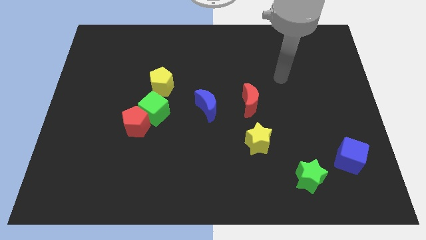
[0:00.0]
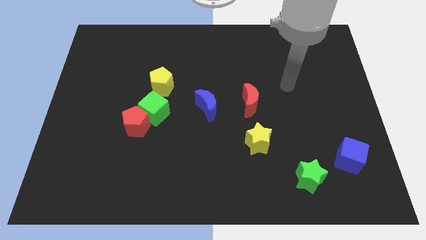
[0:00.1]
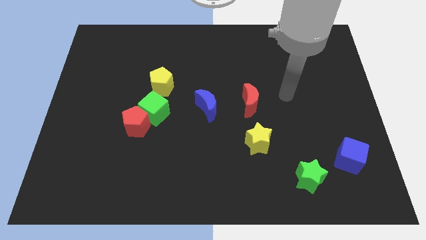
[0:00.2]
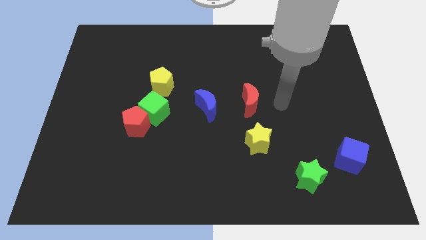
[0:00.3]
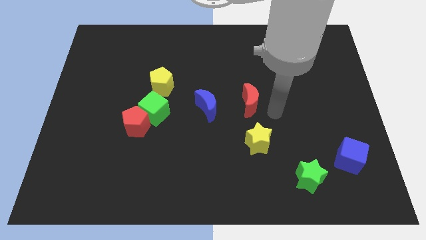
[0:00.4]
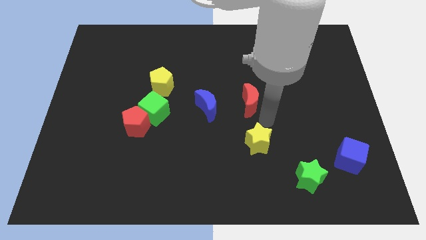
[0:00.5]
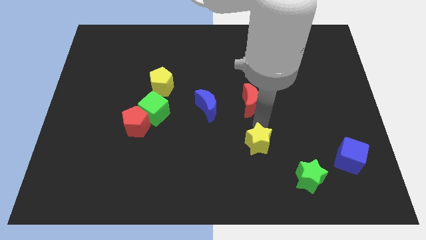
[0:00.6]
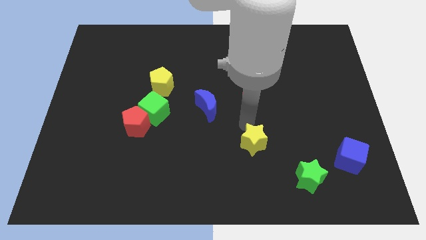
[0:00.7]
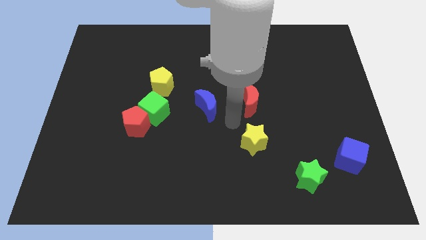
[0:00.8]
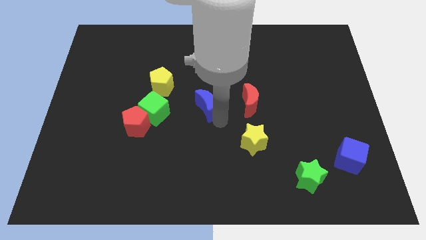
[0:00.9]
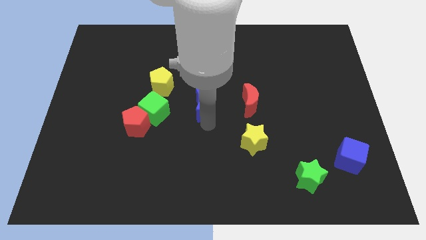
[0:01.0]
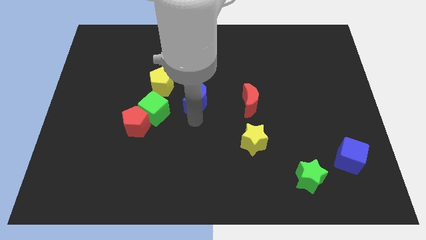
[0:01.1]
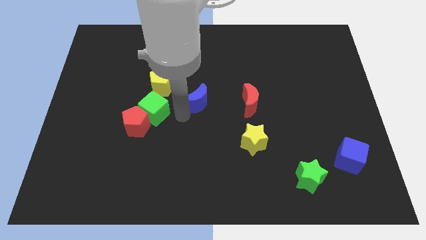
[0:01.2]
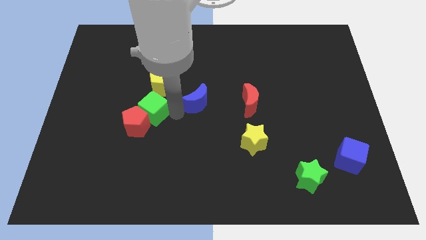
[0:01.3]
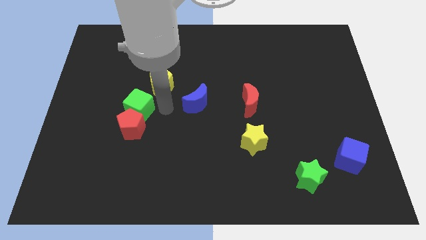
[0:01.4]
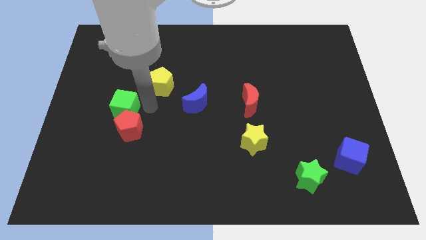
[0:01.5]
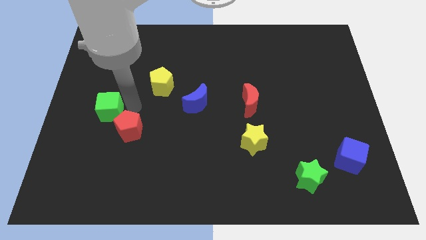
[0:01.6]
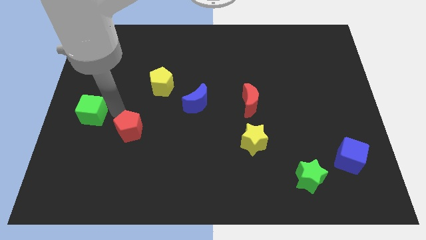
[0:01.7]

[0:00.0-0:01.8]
separate the red pentagon from the green cube

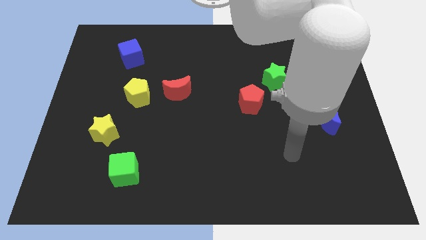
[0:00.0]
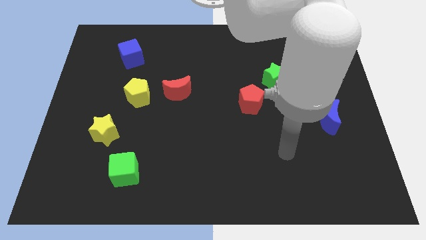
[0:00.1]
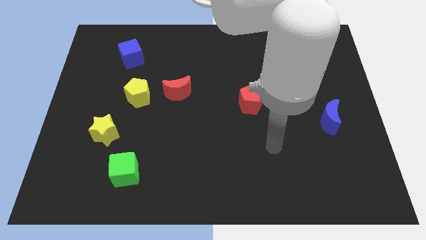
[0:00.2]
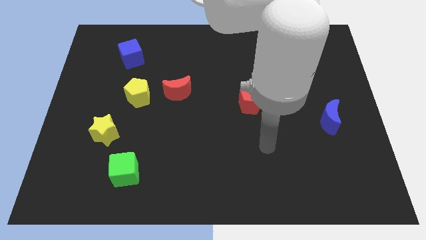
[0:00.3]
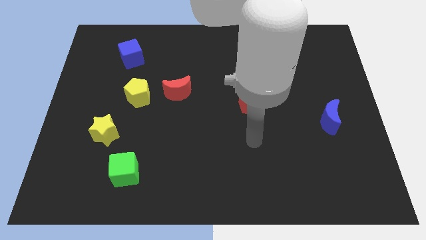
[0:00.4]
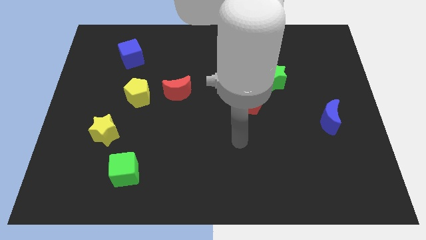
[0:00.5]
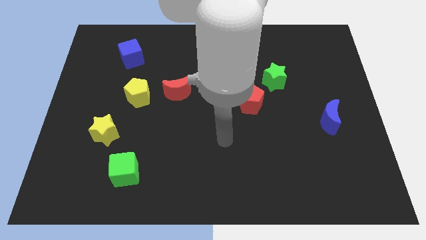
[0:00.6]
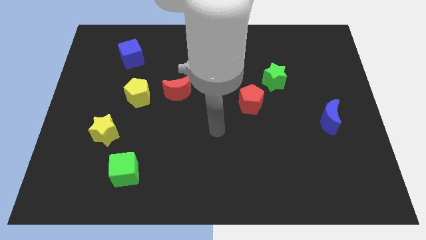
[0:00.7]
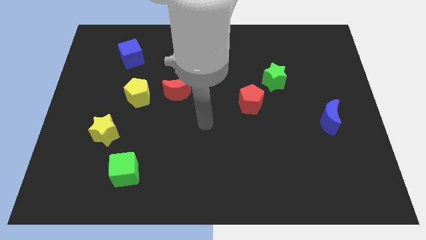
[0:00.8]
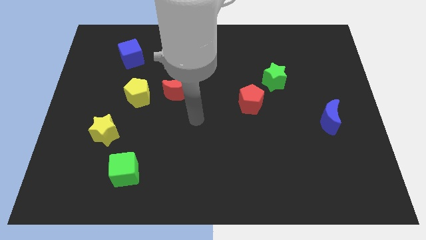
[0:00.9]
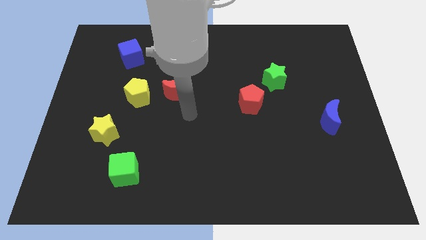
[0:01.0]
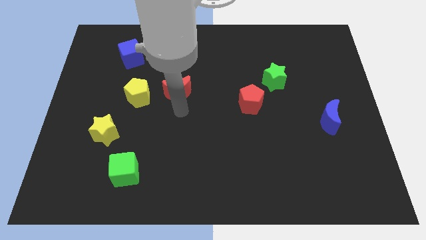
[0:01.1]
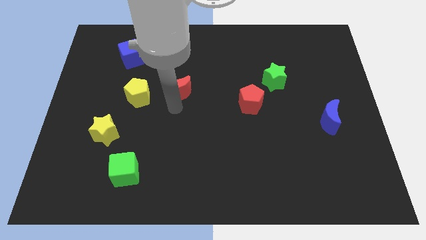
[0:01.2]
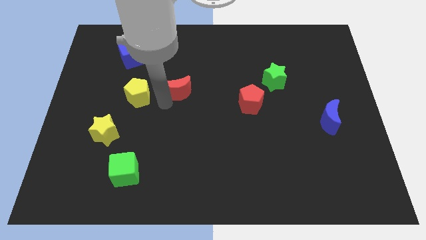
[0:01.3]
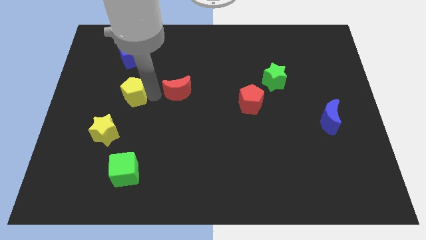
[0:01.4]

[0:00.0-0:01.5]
pull the red moon apart from the yellow pentagon

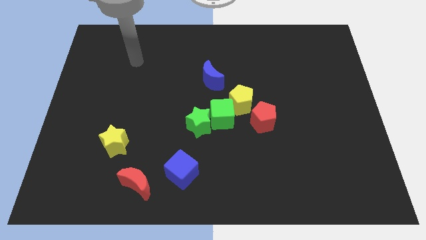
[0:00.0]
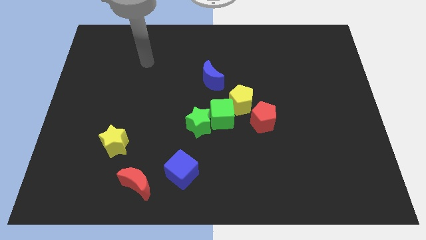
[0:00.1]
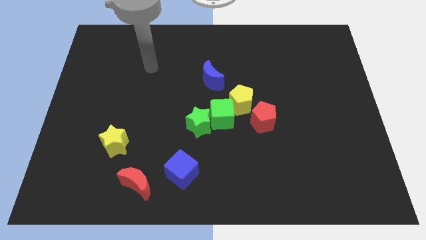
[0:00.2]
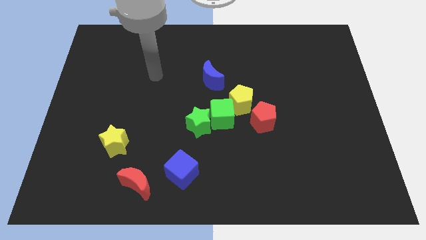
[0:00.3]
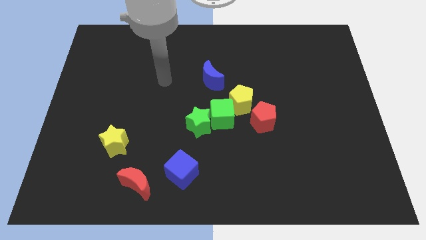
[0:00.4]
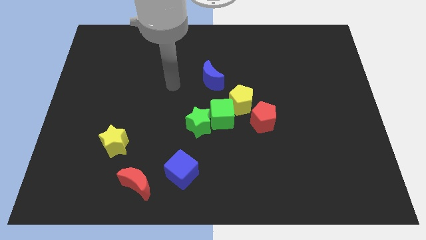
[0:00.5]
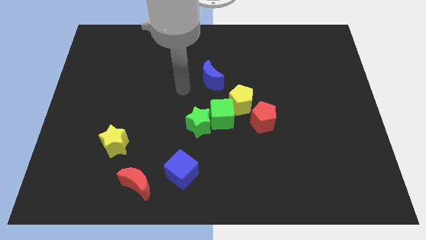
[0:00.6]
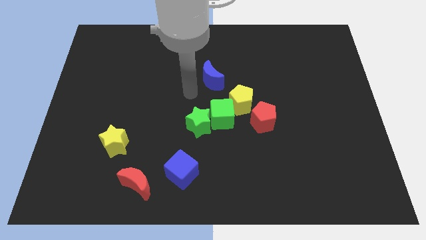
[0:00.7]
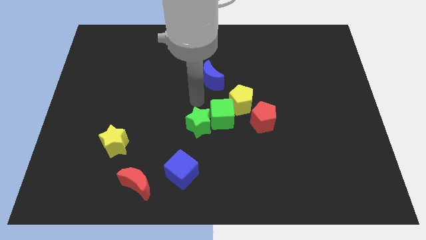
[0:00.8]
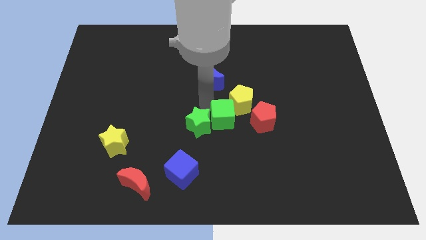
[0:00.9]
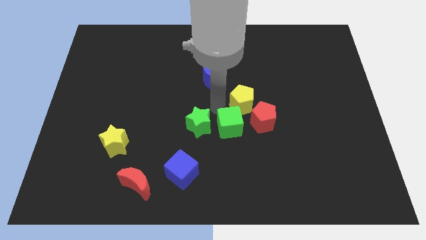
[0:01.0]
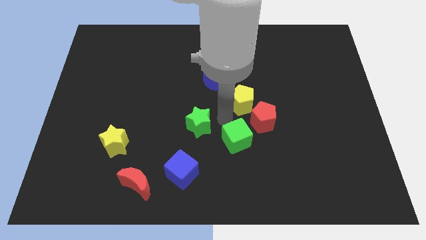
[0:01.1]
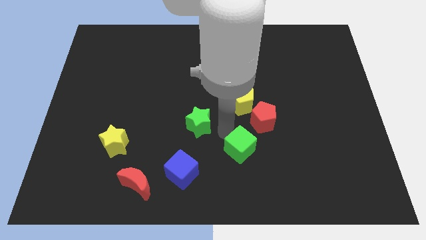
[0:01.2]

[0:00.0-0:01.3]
pull the green star apart from the green cube

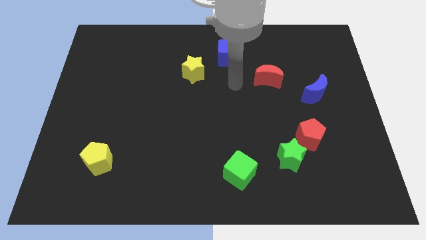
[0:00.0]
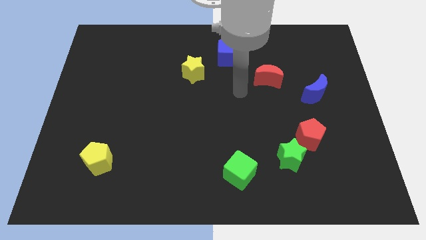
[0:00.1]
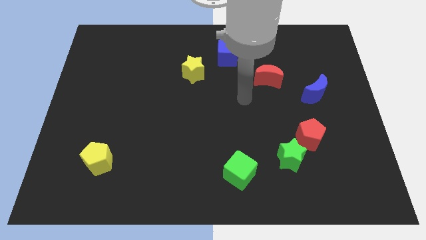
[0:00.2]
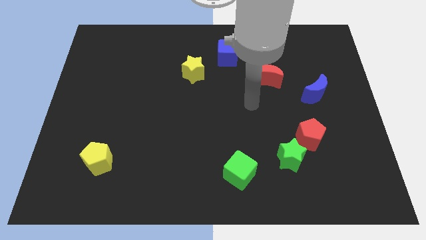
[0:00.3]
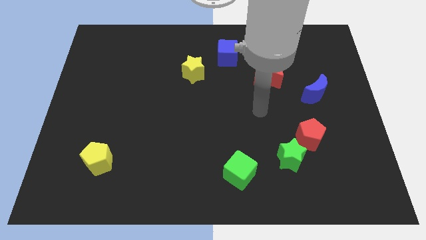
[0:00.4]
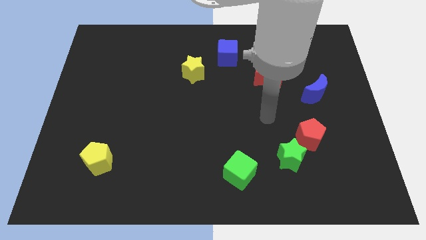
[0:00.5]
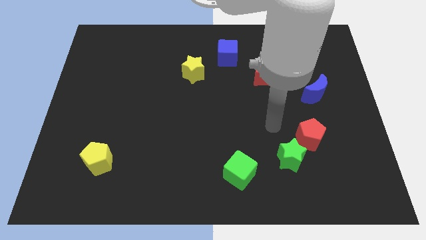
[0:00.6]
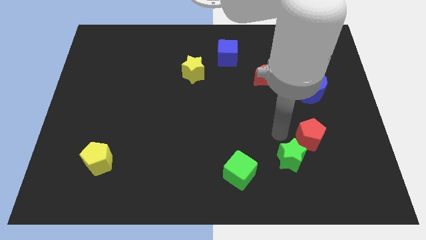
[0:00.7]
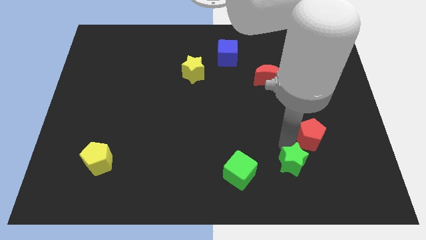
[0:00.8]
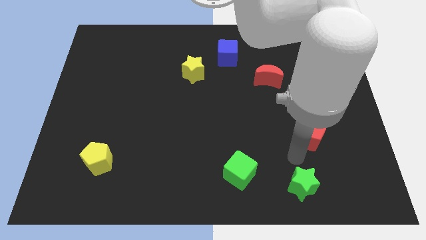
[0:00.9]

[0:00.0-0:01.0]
separate the red pentagon from the green star

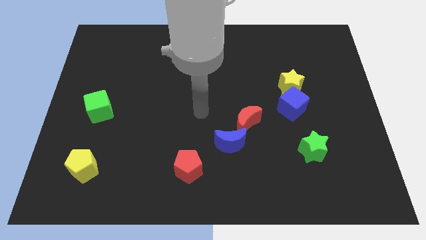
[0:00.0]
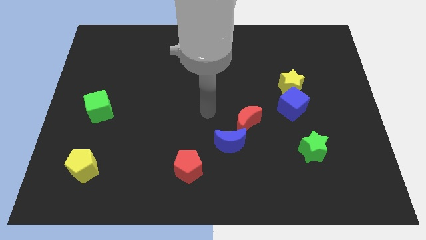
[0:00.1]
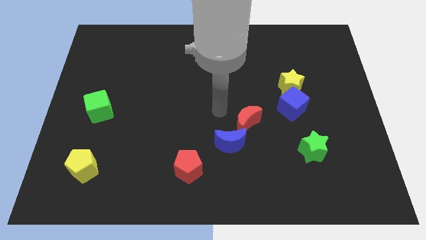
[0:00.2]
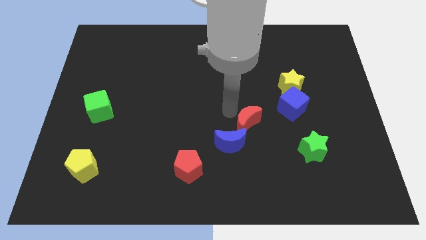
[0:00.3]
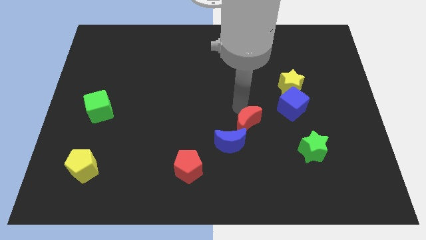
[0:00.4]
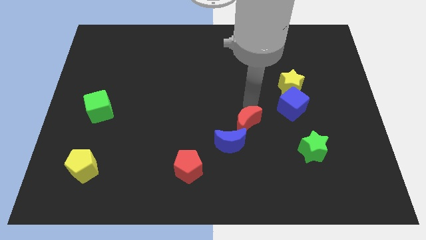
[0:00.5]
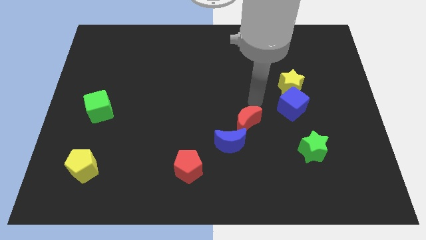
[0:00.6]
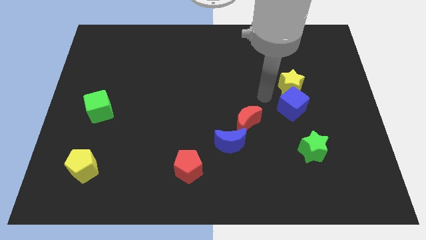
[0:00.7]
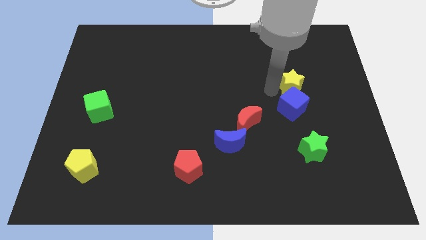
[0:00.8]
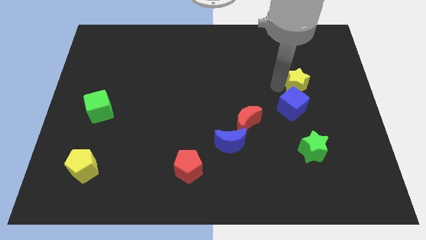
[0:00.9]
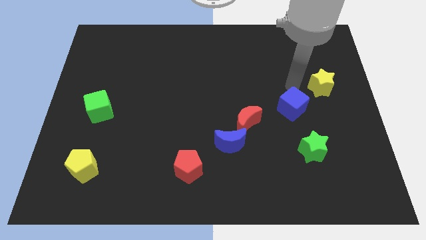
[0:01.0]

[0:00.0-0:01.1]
move the blue cube away from the yellow star

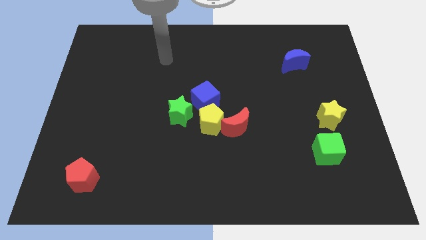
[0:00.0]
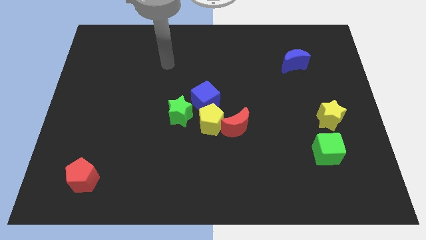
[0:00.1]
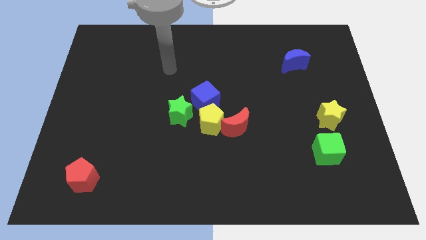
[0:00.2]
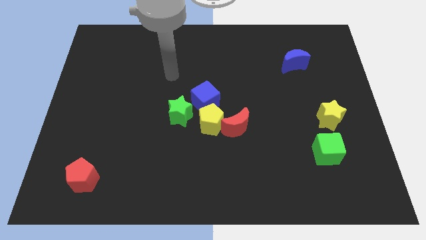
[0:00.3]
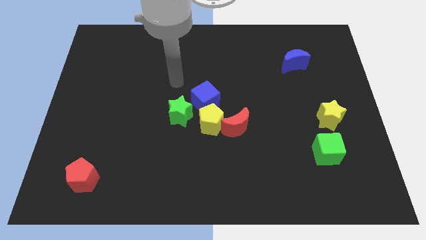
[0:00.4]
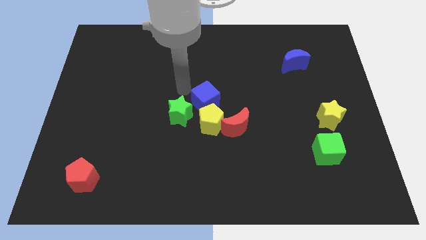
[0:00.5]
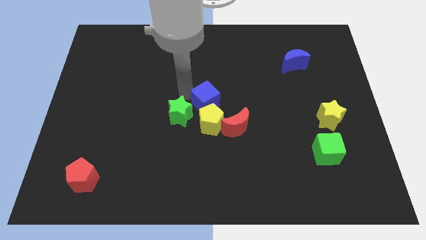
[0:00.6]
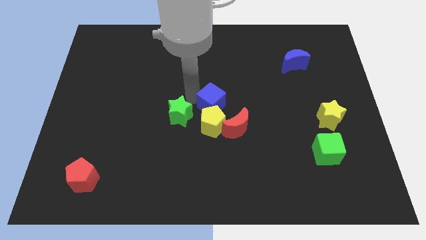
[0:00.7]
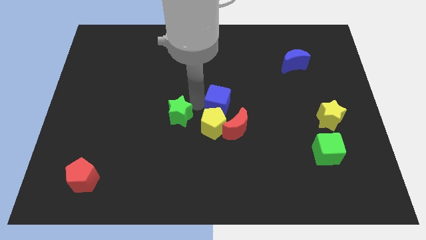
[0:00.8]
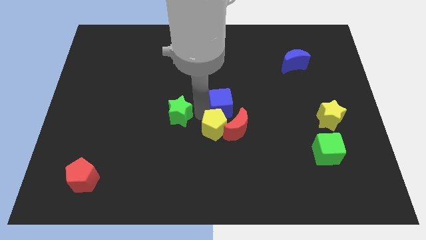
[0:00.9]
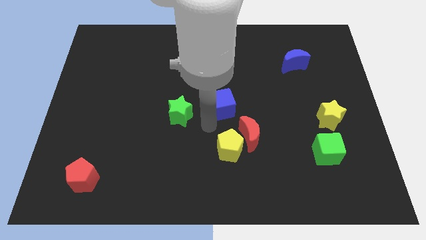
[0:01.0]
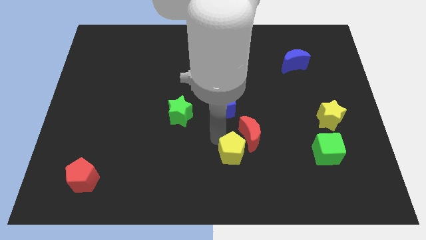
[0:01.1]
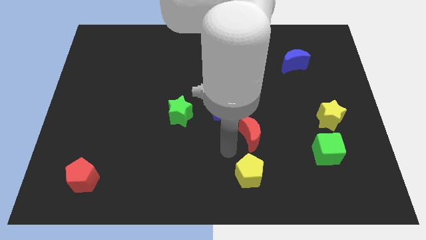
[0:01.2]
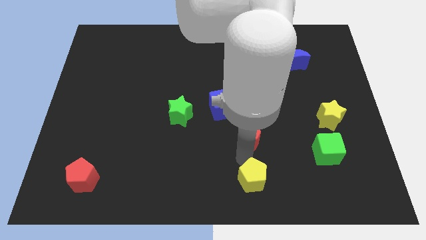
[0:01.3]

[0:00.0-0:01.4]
separate the red moon from the yellow pentagon

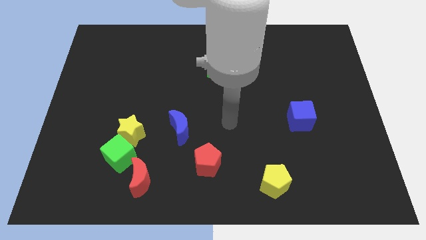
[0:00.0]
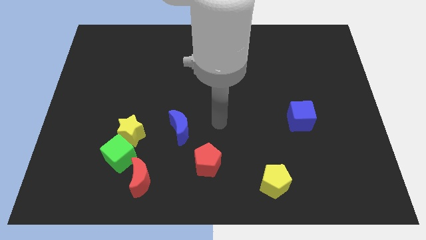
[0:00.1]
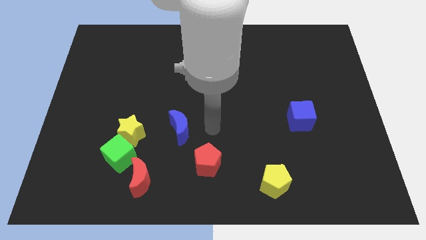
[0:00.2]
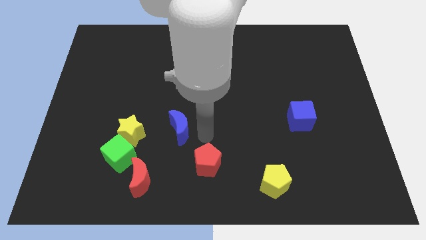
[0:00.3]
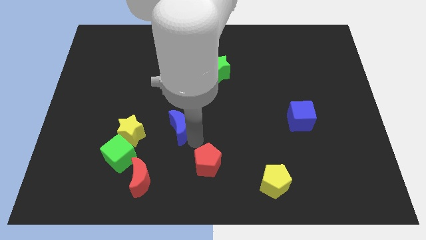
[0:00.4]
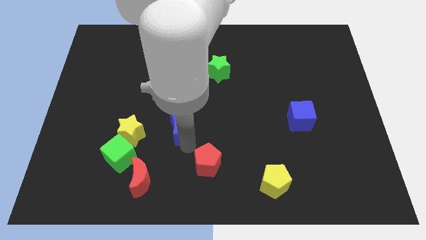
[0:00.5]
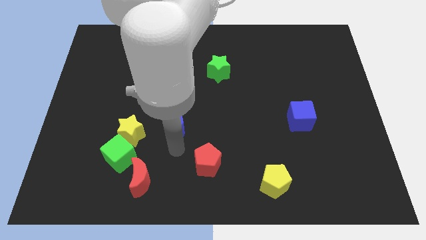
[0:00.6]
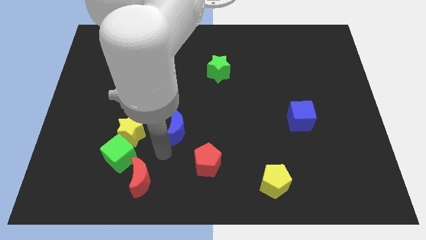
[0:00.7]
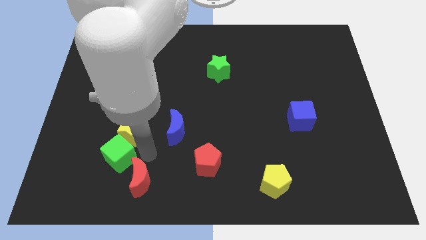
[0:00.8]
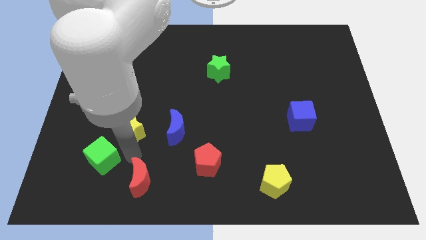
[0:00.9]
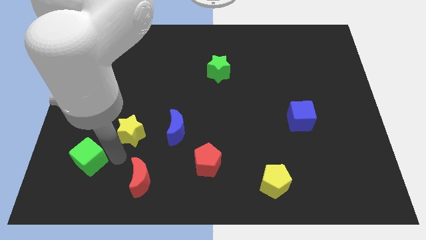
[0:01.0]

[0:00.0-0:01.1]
pull the yellow star apart from the green cube

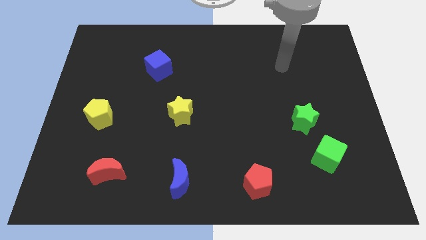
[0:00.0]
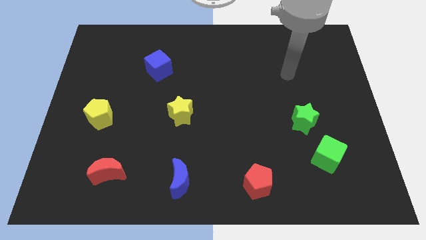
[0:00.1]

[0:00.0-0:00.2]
move the green cube away from the green star
